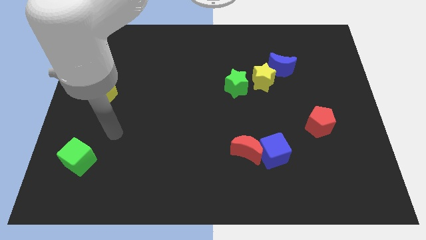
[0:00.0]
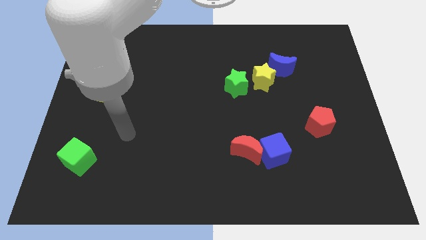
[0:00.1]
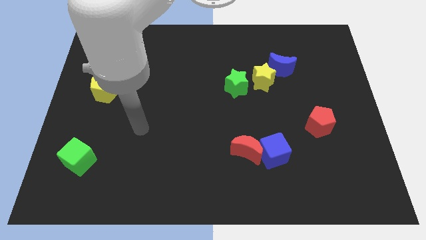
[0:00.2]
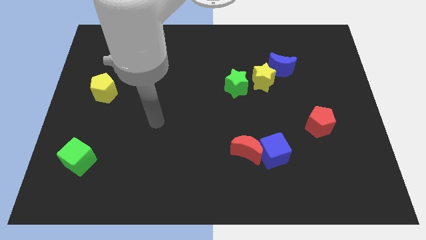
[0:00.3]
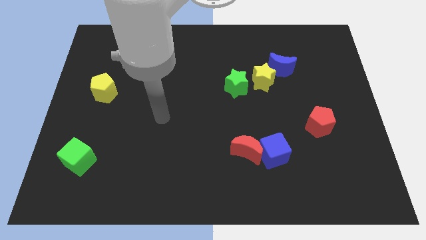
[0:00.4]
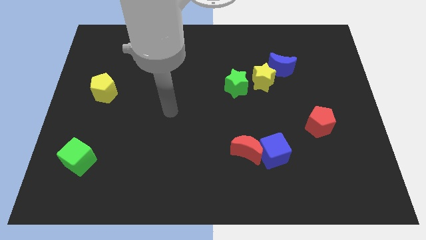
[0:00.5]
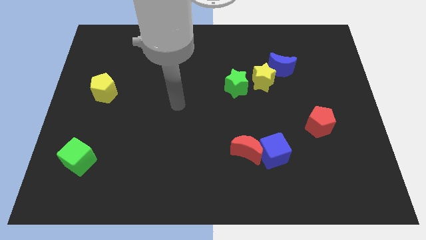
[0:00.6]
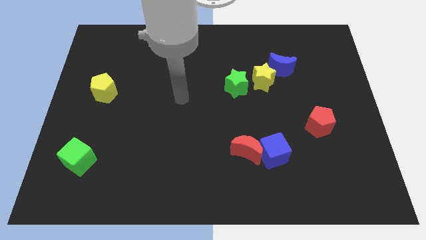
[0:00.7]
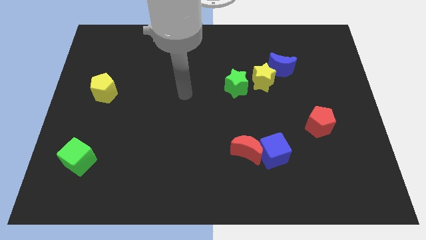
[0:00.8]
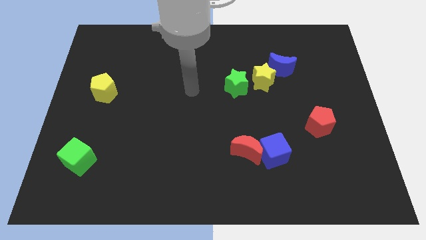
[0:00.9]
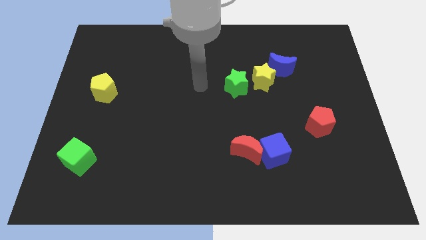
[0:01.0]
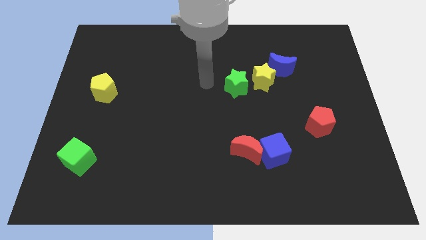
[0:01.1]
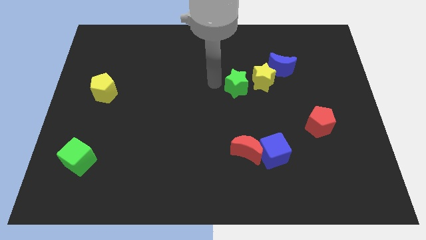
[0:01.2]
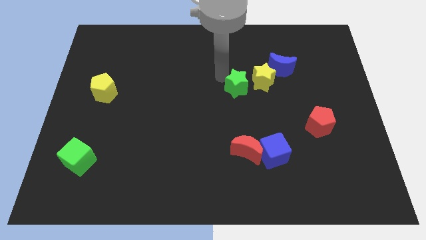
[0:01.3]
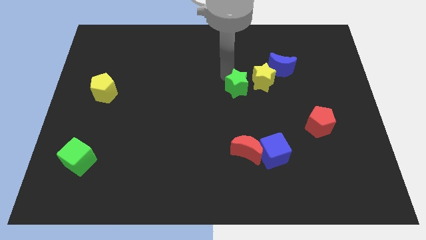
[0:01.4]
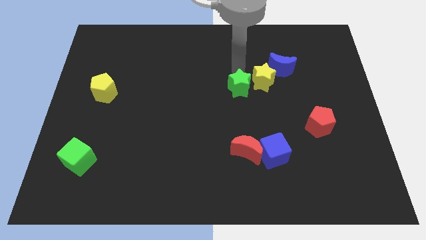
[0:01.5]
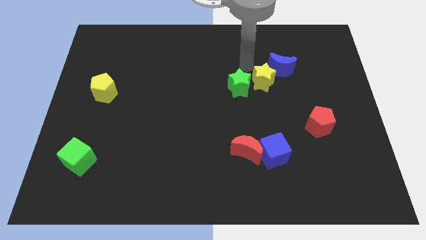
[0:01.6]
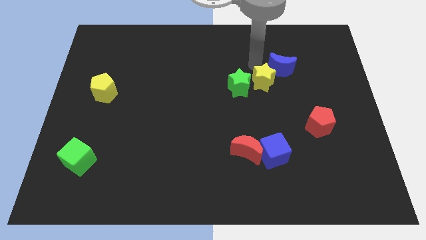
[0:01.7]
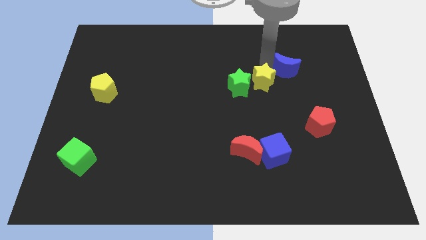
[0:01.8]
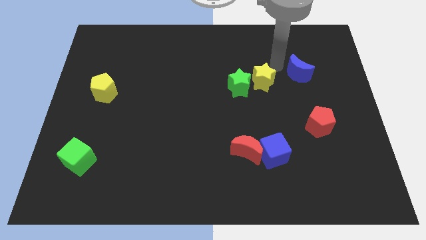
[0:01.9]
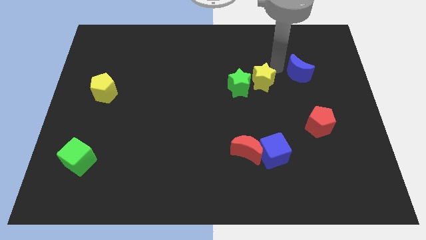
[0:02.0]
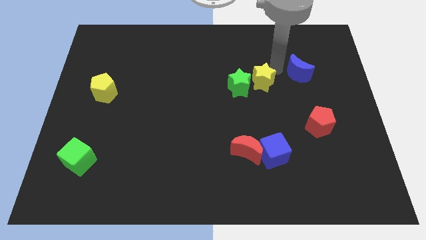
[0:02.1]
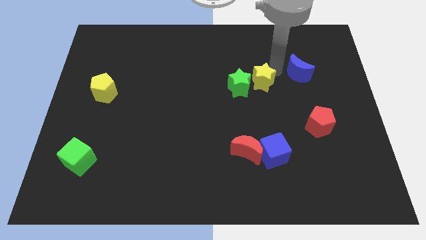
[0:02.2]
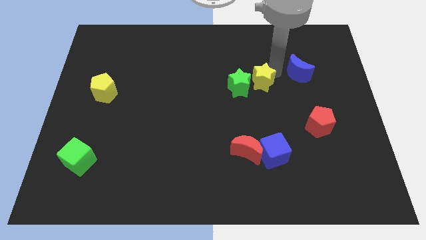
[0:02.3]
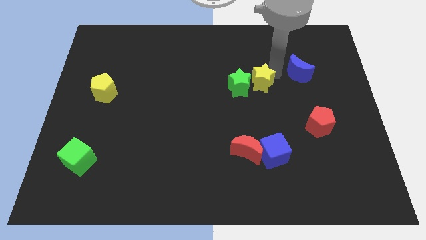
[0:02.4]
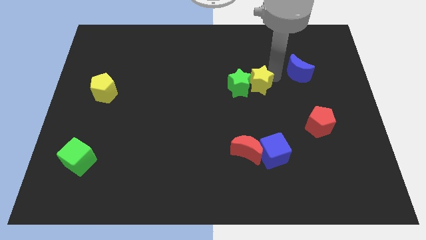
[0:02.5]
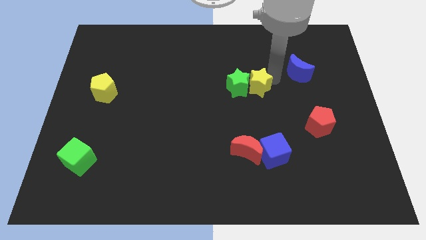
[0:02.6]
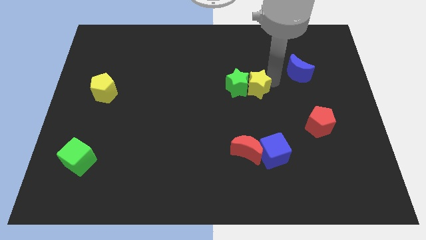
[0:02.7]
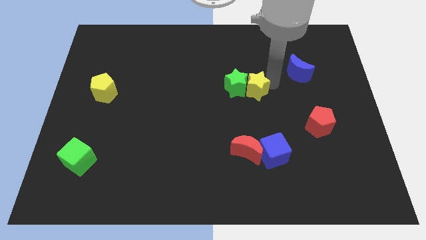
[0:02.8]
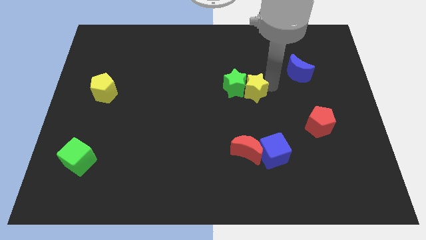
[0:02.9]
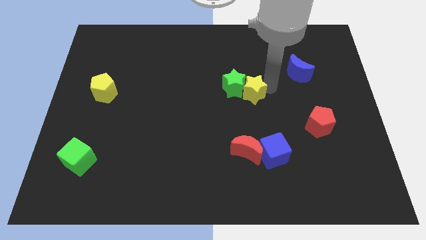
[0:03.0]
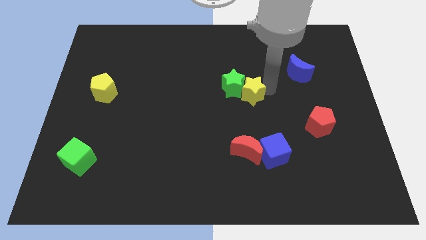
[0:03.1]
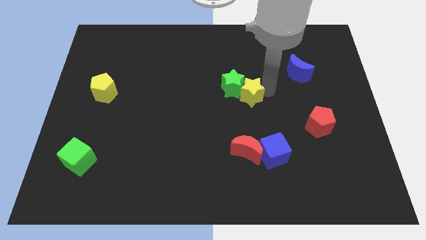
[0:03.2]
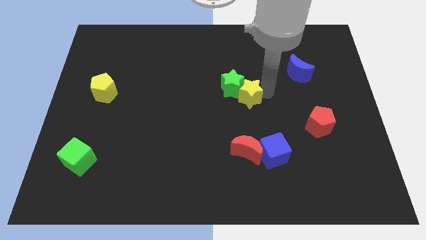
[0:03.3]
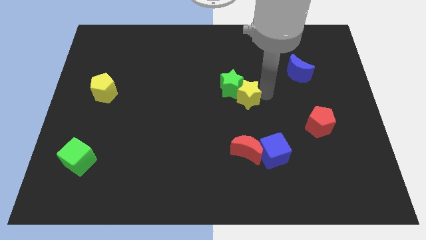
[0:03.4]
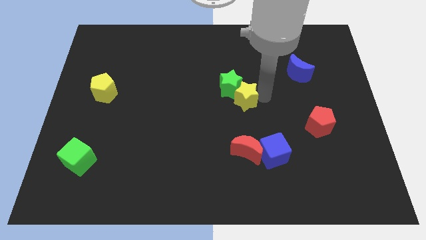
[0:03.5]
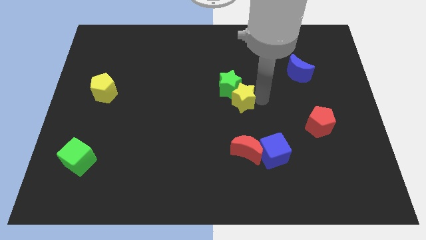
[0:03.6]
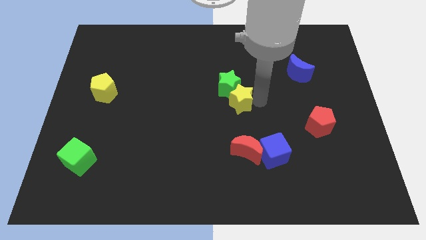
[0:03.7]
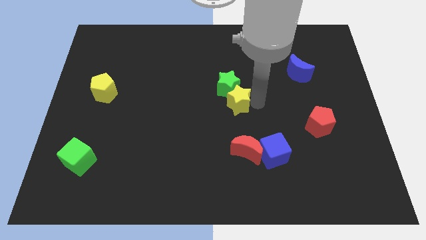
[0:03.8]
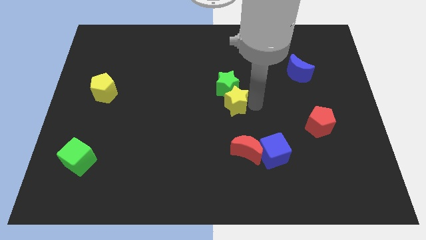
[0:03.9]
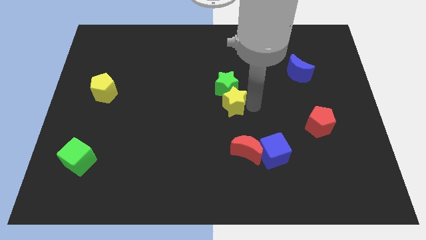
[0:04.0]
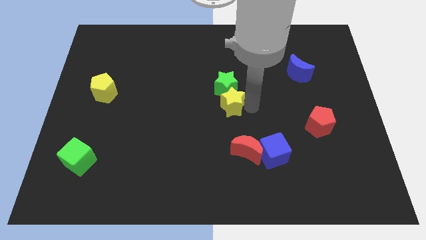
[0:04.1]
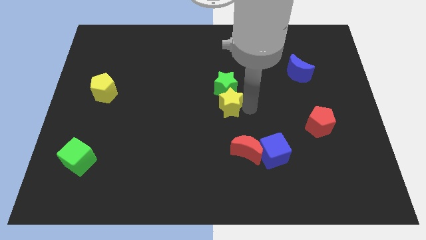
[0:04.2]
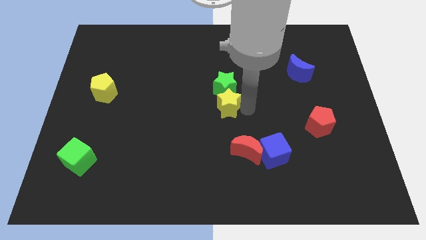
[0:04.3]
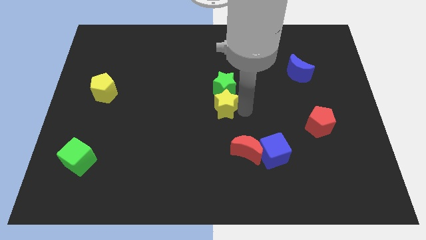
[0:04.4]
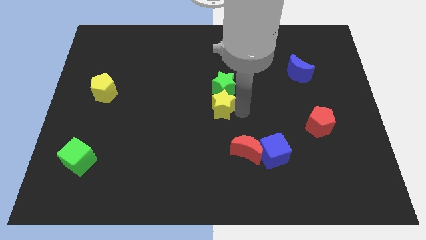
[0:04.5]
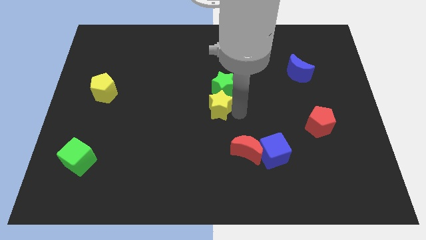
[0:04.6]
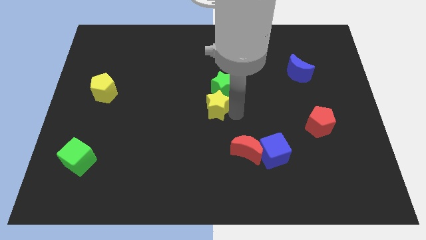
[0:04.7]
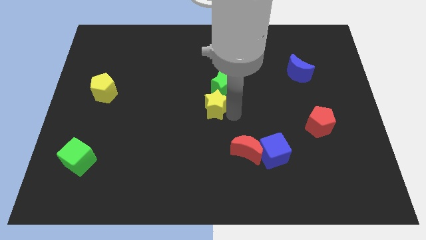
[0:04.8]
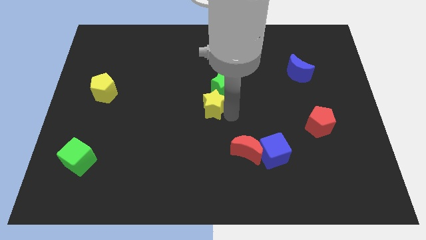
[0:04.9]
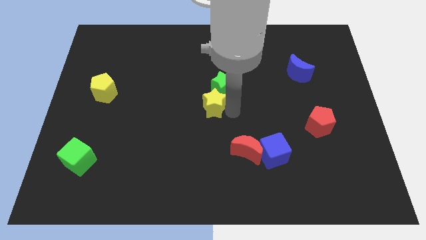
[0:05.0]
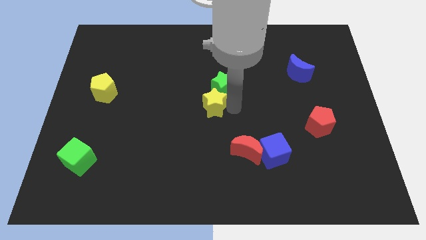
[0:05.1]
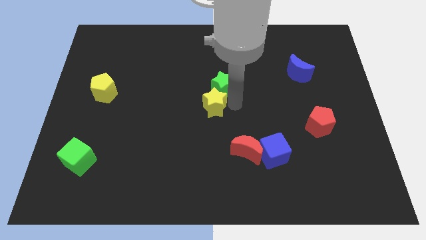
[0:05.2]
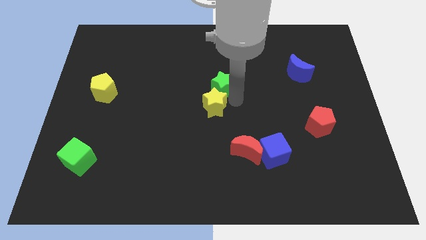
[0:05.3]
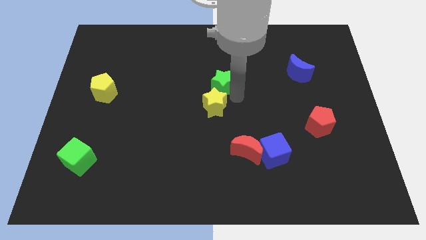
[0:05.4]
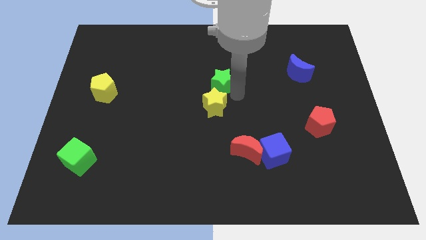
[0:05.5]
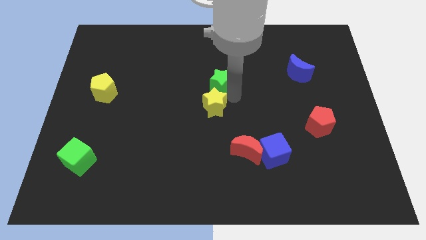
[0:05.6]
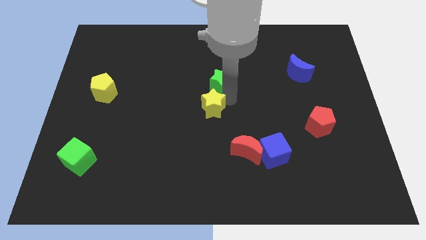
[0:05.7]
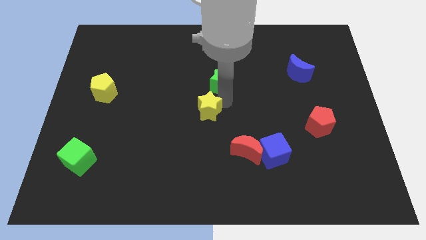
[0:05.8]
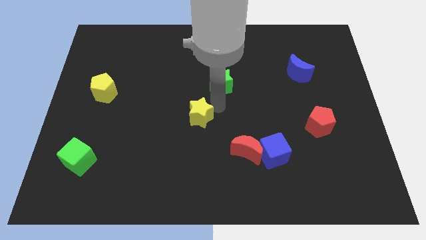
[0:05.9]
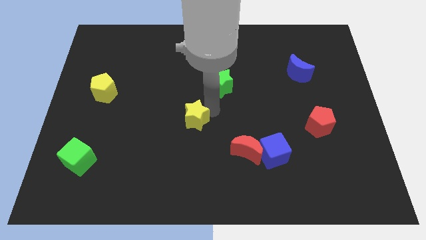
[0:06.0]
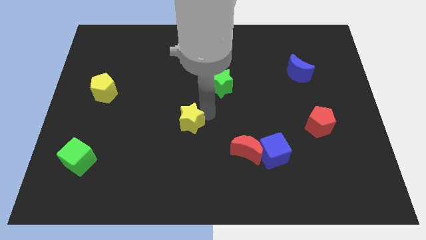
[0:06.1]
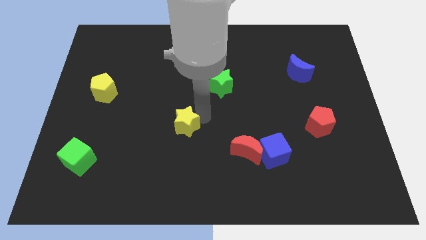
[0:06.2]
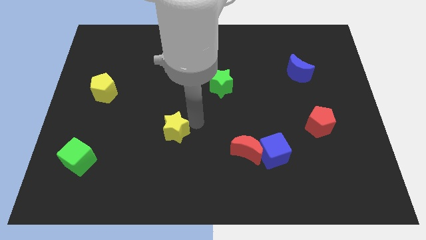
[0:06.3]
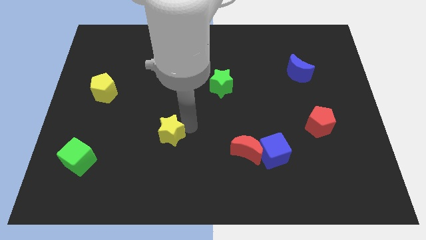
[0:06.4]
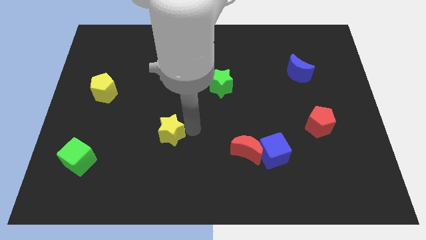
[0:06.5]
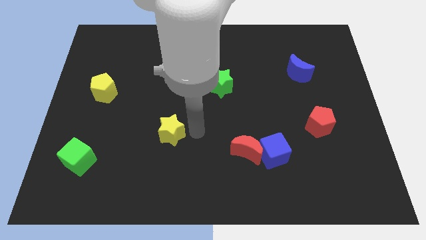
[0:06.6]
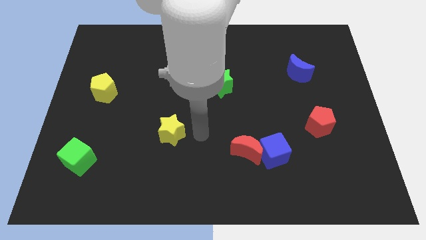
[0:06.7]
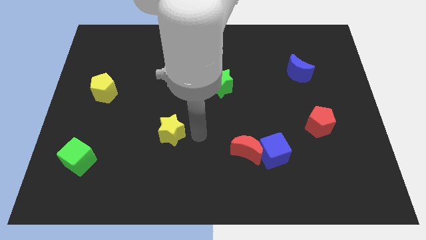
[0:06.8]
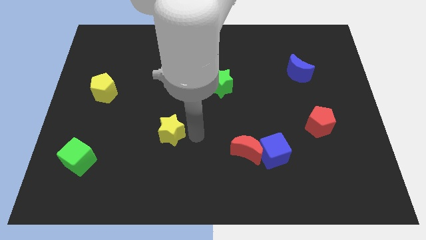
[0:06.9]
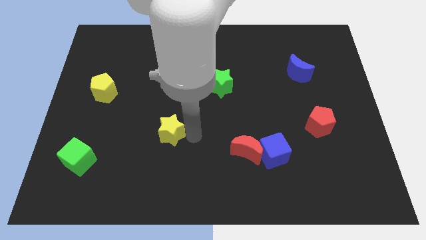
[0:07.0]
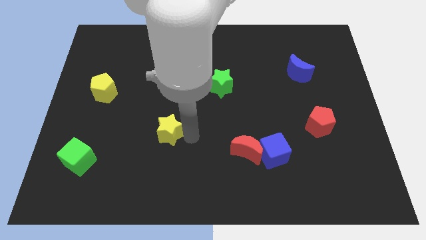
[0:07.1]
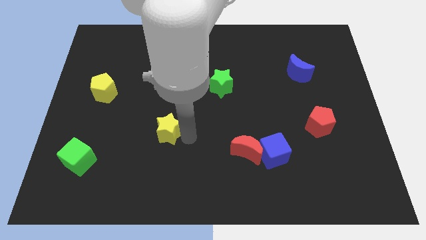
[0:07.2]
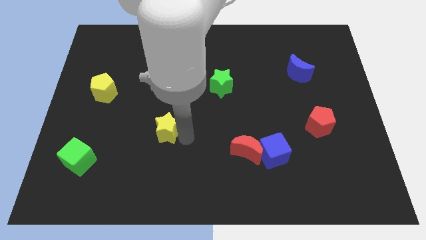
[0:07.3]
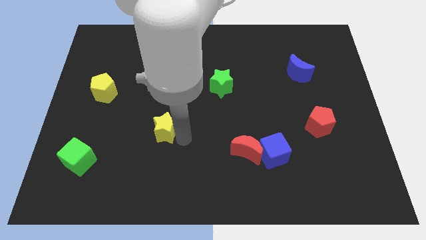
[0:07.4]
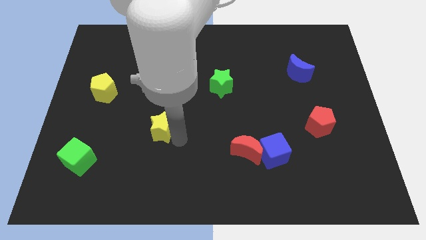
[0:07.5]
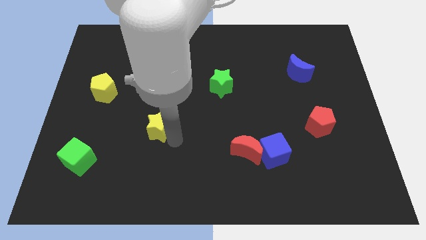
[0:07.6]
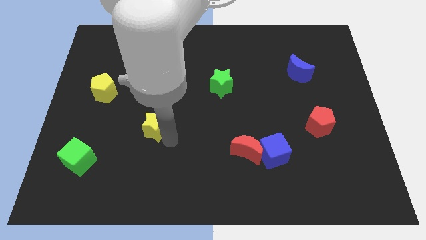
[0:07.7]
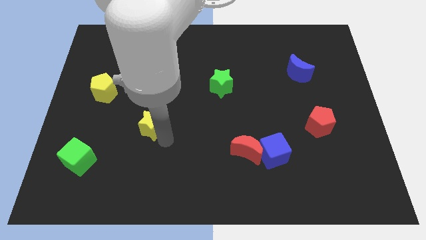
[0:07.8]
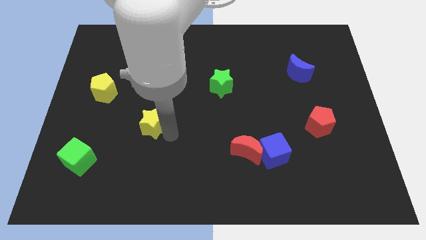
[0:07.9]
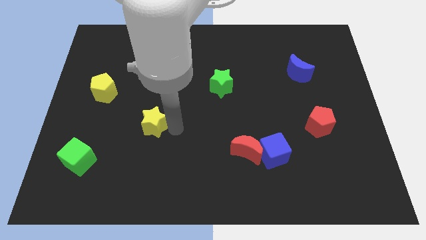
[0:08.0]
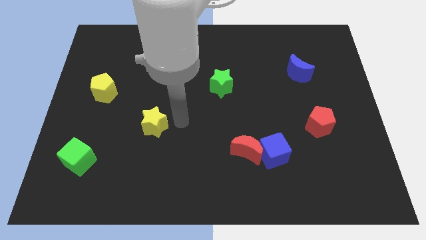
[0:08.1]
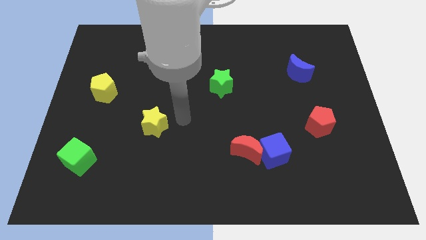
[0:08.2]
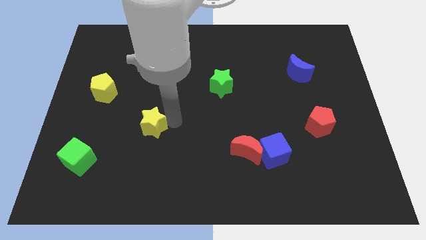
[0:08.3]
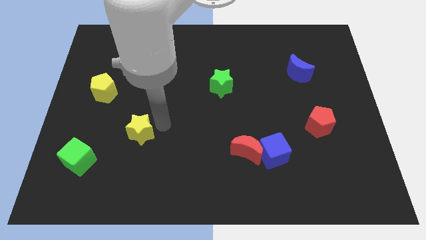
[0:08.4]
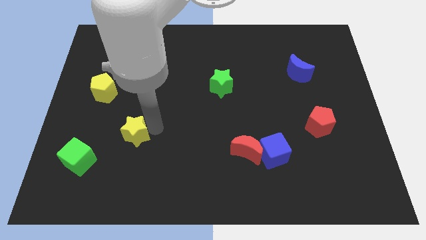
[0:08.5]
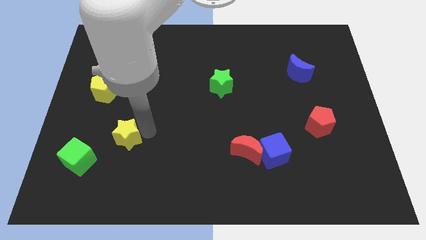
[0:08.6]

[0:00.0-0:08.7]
put the yellow star to the top right side of the green cube
